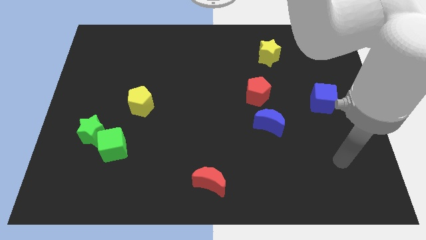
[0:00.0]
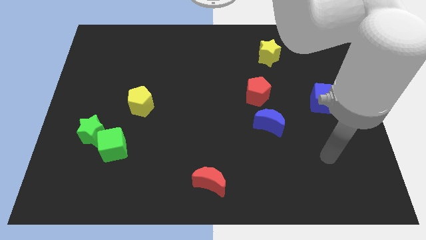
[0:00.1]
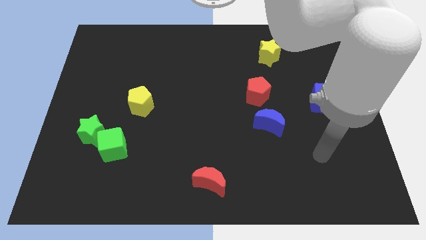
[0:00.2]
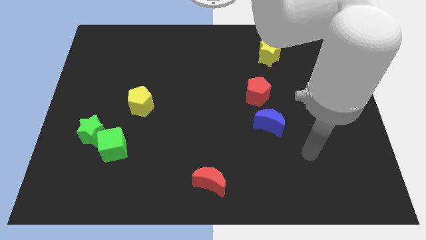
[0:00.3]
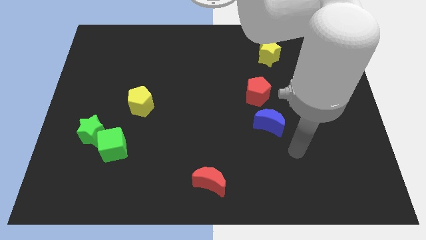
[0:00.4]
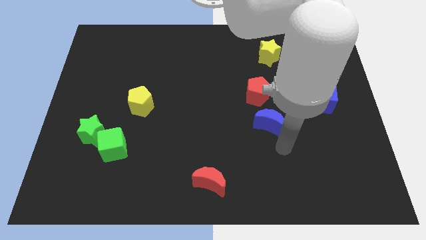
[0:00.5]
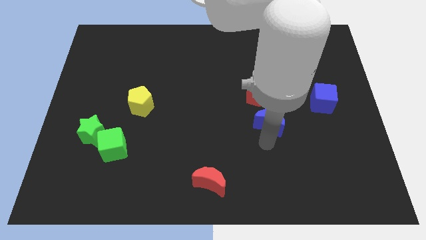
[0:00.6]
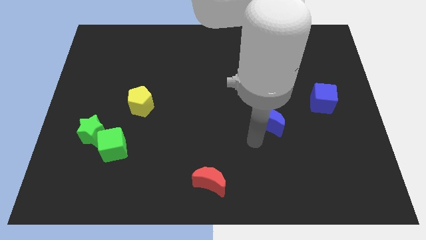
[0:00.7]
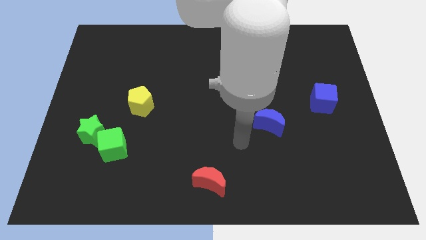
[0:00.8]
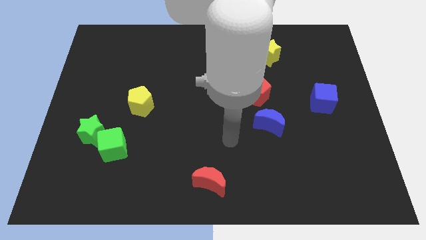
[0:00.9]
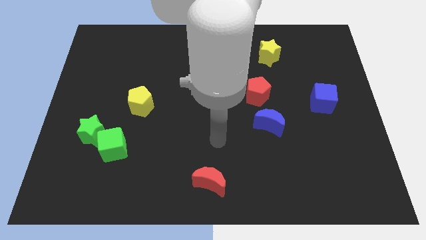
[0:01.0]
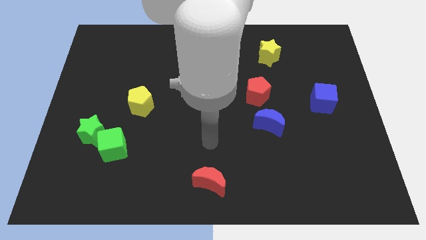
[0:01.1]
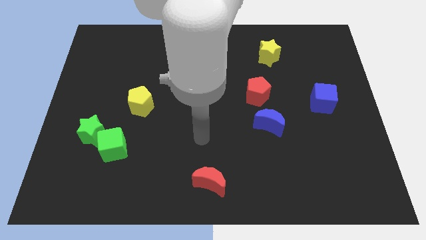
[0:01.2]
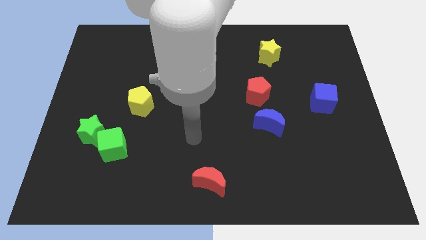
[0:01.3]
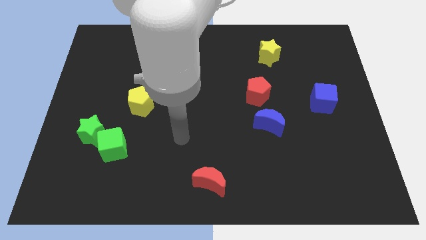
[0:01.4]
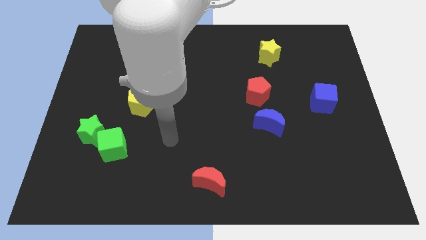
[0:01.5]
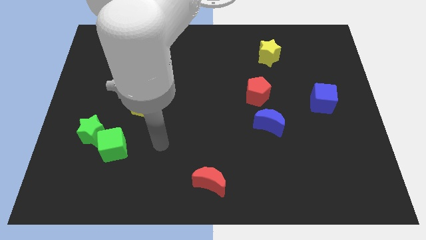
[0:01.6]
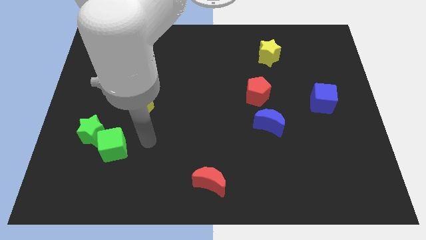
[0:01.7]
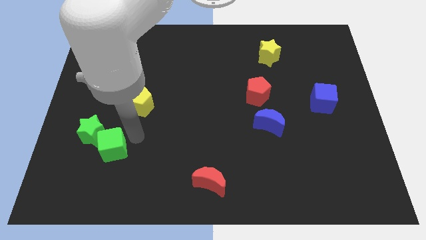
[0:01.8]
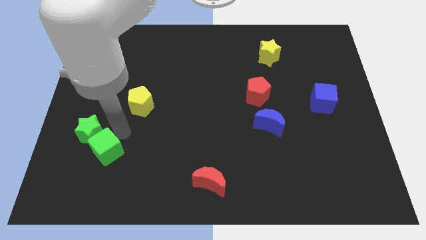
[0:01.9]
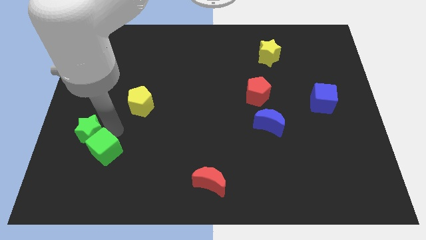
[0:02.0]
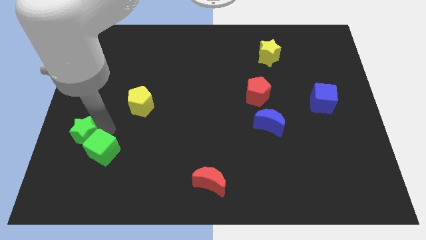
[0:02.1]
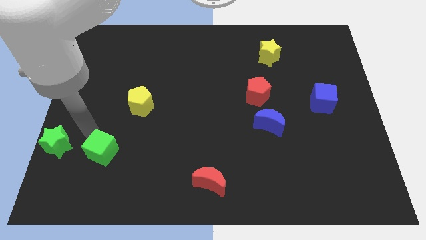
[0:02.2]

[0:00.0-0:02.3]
move the green cube away from the green star

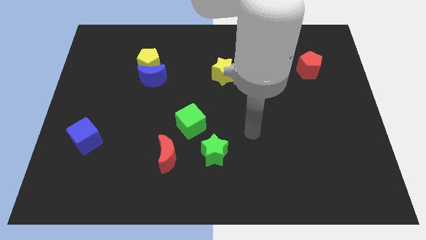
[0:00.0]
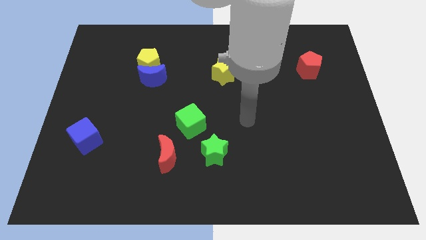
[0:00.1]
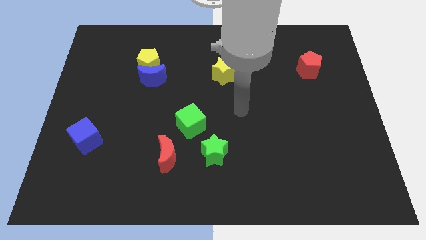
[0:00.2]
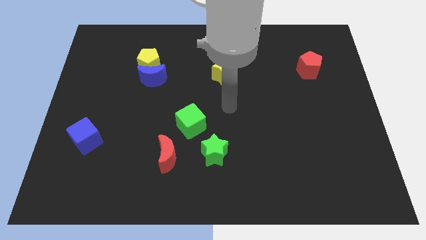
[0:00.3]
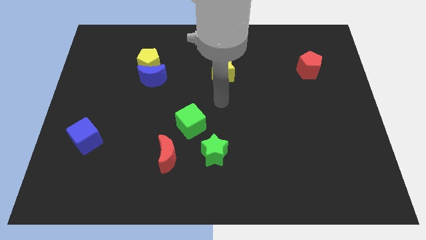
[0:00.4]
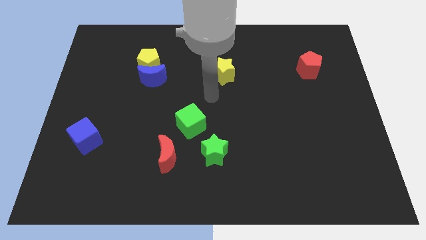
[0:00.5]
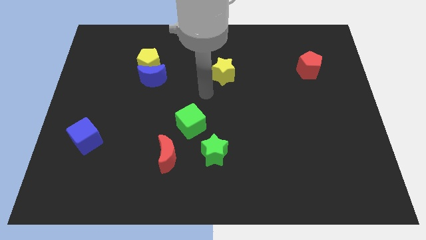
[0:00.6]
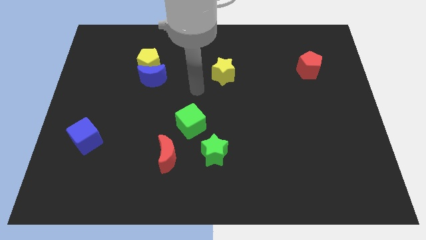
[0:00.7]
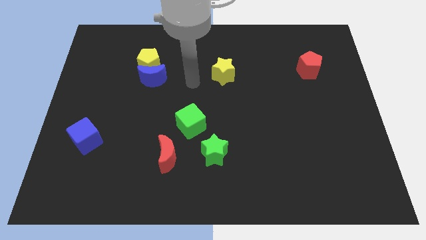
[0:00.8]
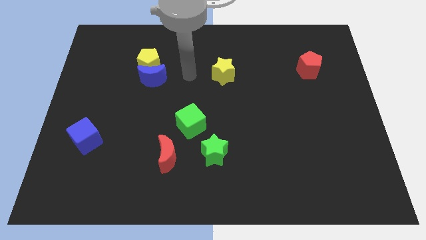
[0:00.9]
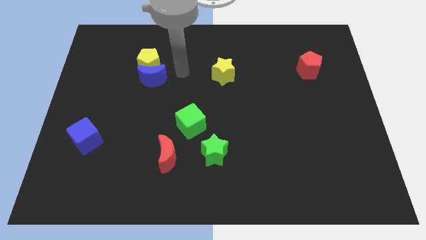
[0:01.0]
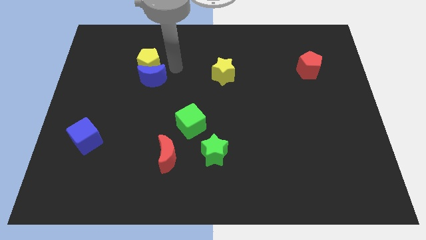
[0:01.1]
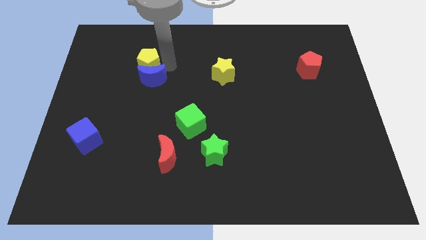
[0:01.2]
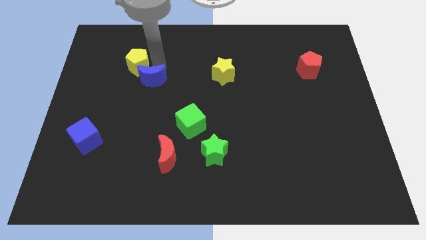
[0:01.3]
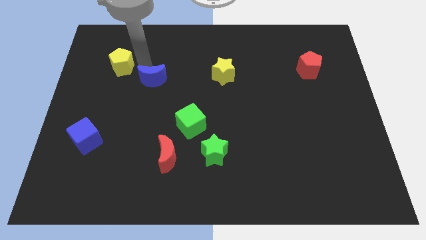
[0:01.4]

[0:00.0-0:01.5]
pull the blue moon apart from the yellow pentagon

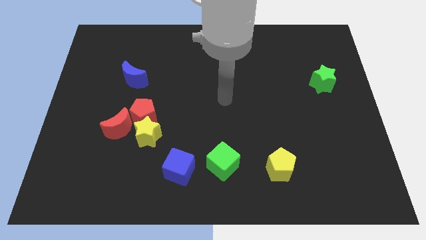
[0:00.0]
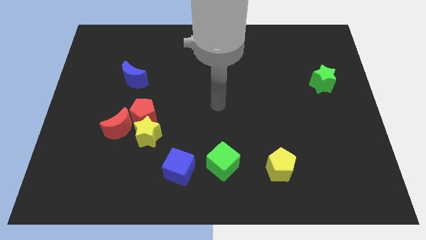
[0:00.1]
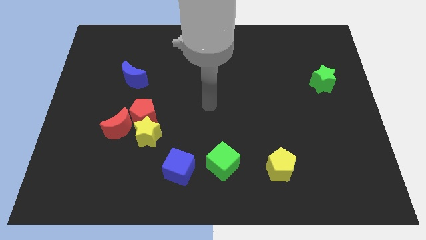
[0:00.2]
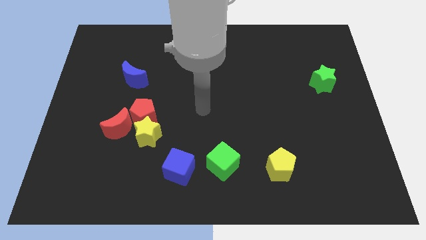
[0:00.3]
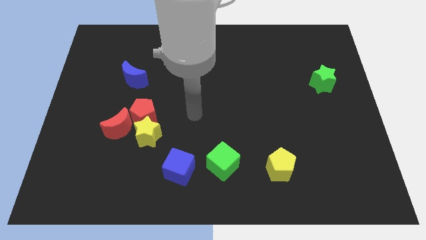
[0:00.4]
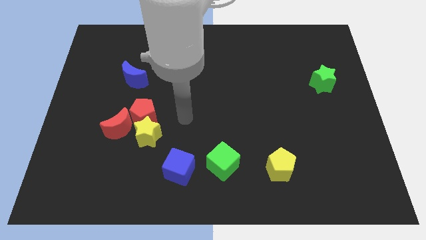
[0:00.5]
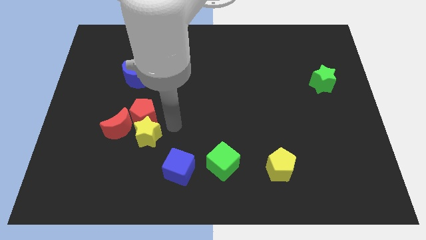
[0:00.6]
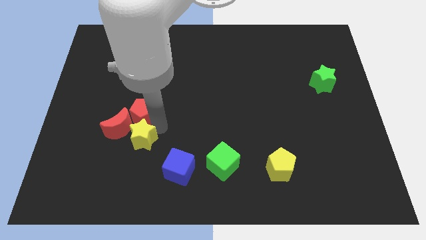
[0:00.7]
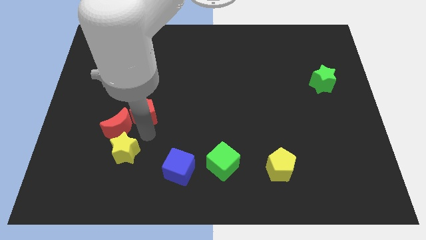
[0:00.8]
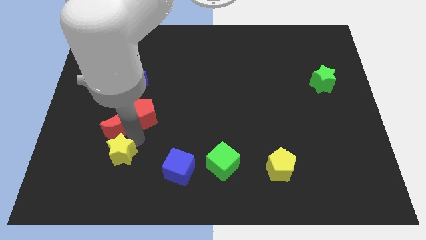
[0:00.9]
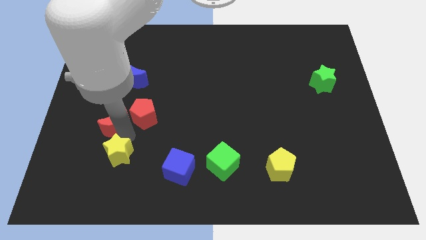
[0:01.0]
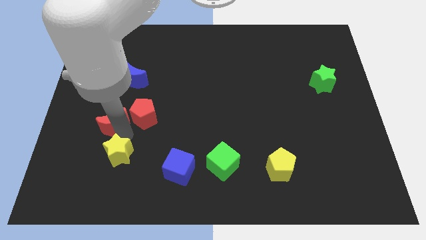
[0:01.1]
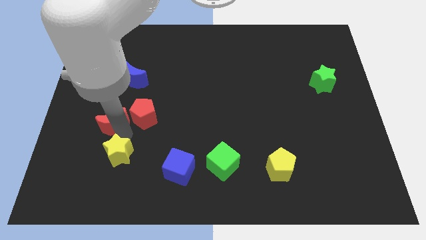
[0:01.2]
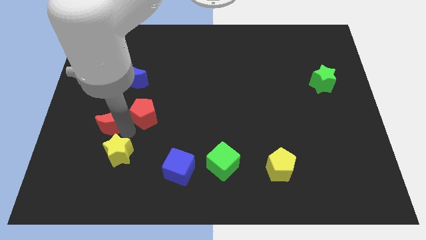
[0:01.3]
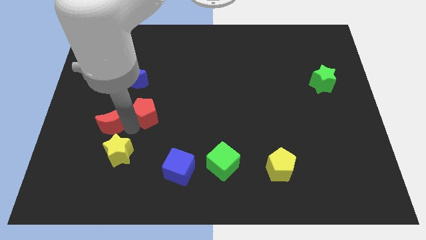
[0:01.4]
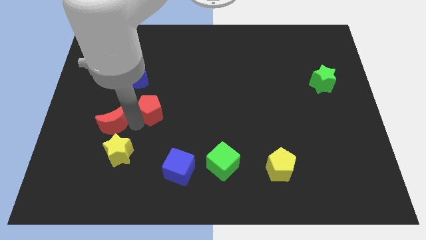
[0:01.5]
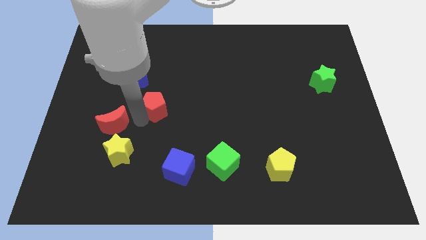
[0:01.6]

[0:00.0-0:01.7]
move the red pentagon away from the yellow star and red moon

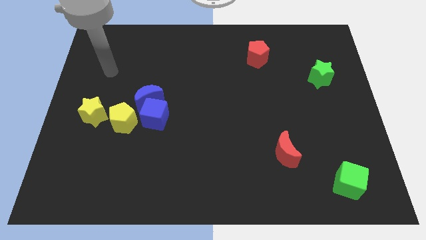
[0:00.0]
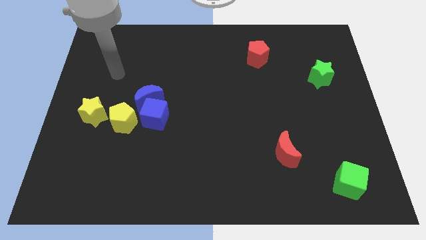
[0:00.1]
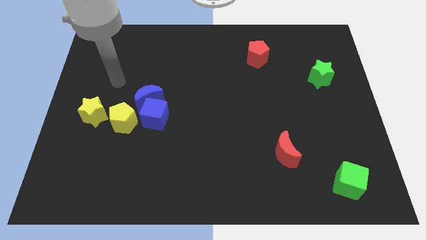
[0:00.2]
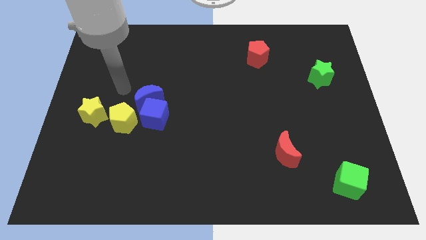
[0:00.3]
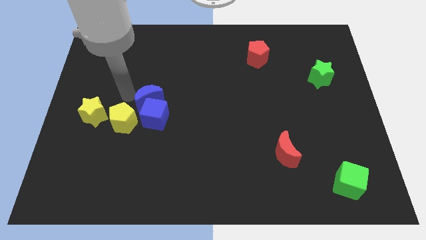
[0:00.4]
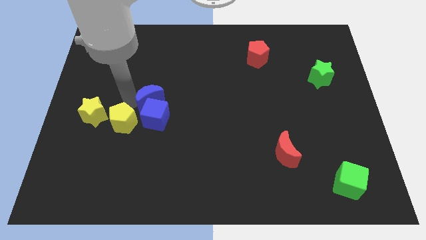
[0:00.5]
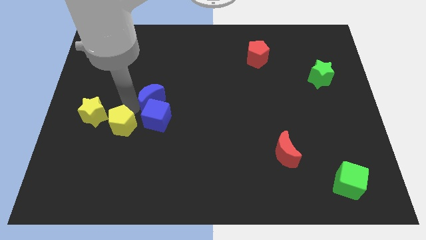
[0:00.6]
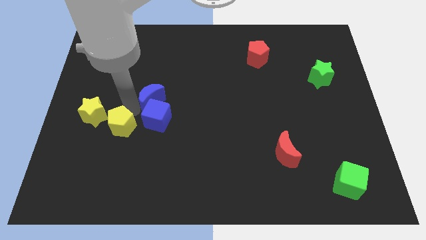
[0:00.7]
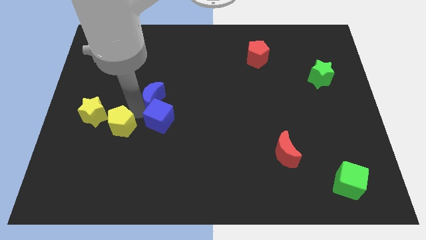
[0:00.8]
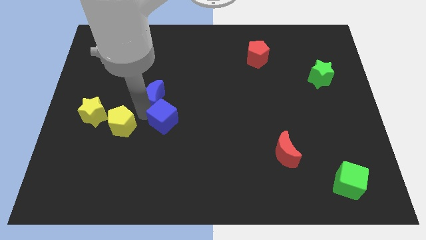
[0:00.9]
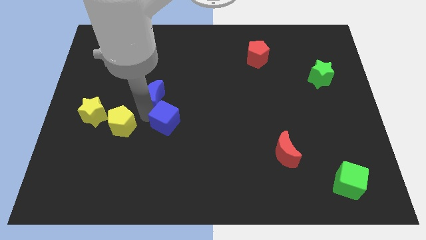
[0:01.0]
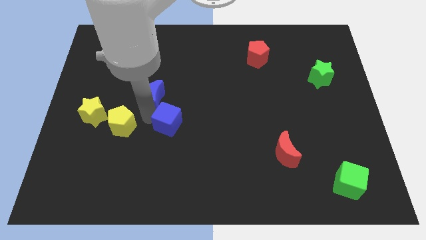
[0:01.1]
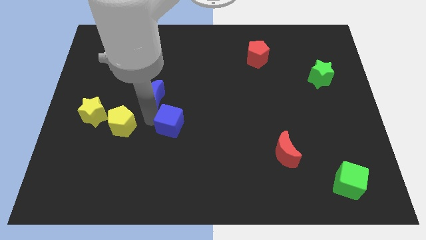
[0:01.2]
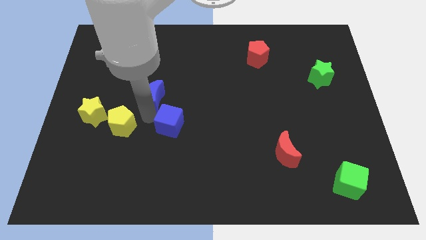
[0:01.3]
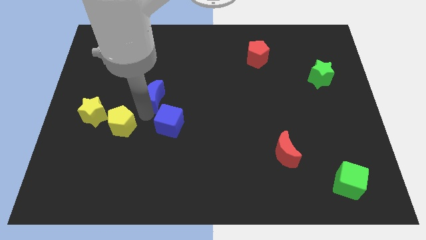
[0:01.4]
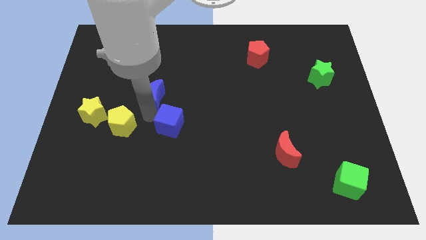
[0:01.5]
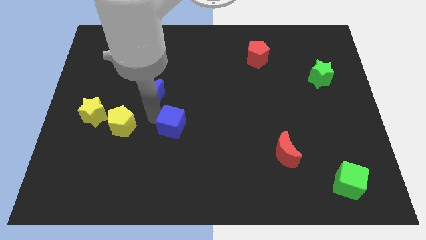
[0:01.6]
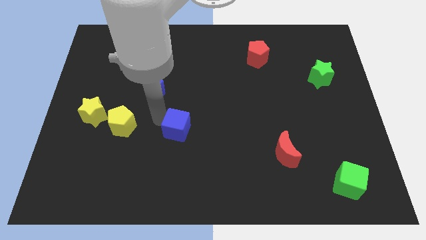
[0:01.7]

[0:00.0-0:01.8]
pull the blue cube apart from the blue moon and yellow pentagon

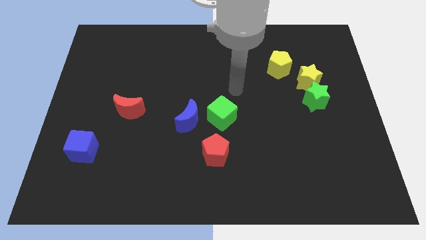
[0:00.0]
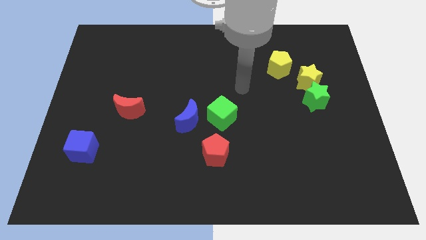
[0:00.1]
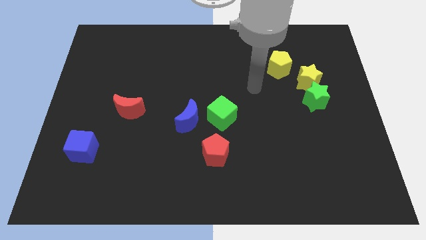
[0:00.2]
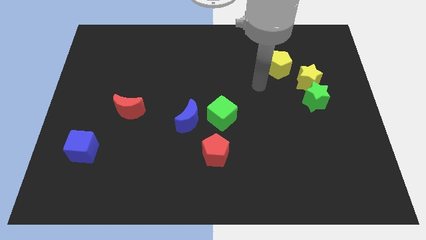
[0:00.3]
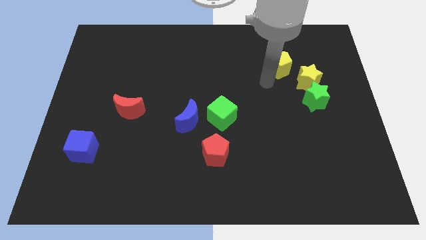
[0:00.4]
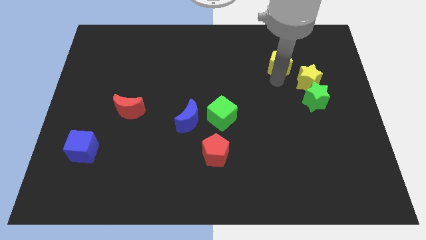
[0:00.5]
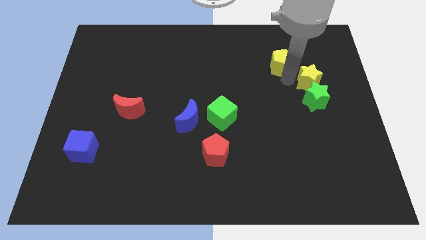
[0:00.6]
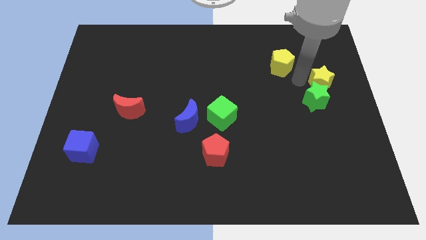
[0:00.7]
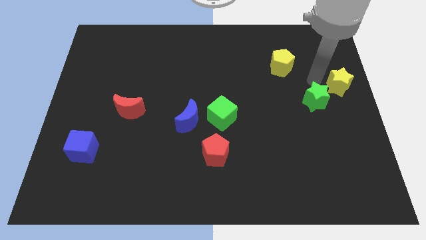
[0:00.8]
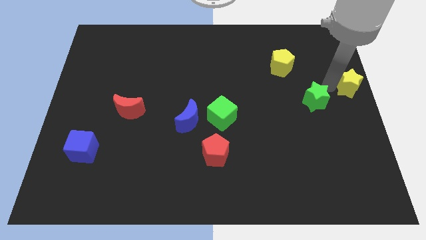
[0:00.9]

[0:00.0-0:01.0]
pull the green star apart from the yellow star

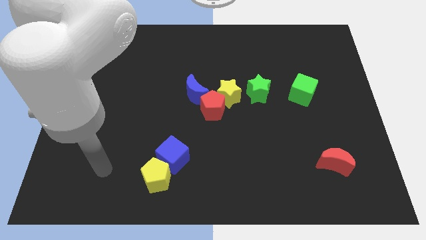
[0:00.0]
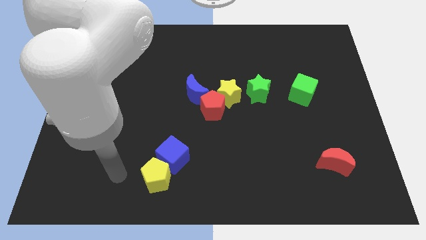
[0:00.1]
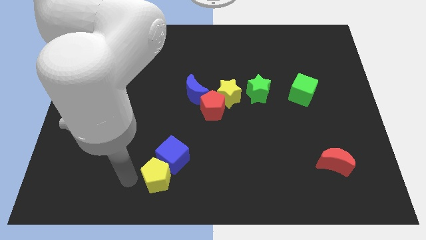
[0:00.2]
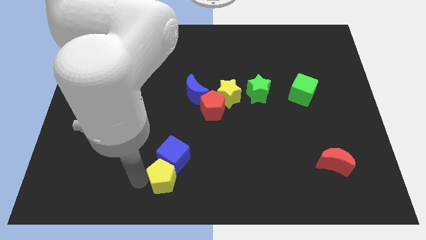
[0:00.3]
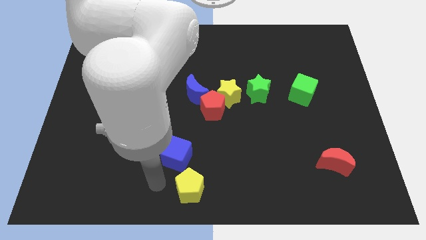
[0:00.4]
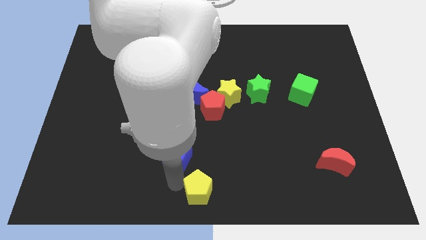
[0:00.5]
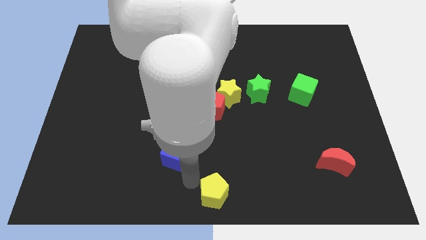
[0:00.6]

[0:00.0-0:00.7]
pull the blue cube apart from the yellow pentagon
